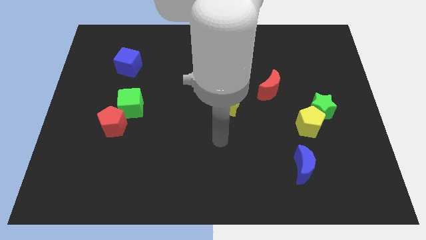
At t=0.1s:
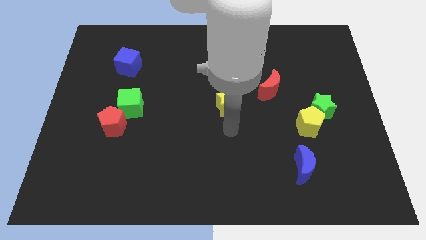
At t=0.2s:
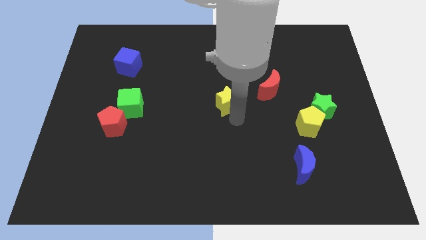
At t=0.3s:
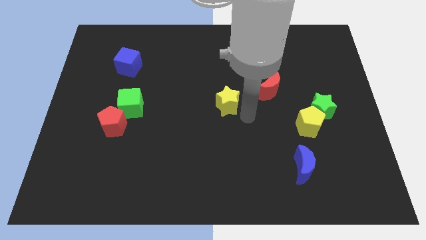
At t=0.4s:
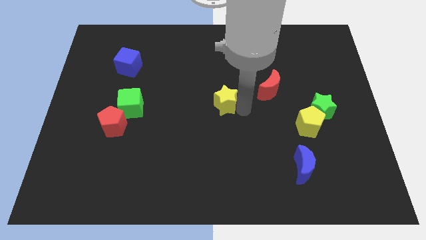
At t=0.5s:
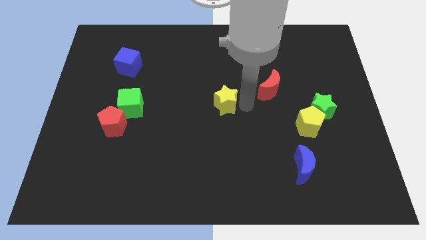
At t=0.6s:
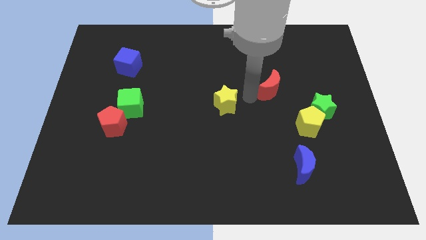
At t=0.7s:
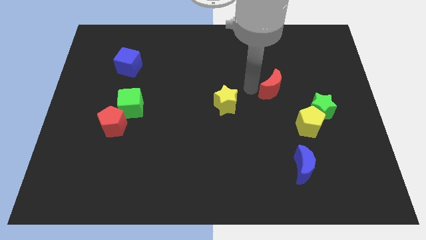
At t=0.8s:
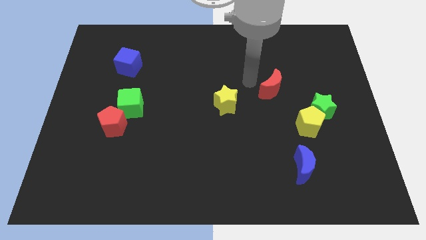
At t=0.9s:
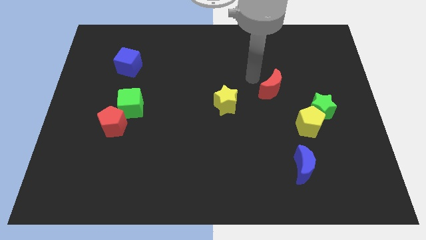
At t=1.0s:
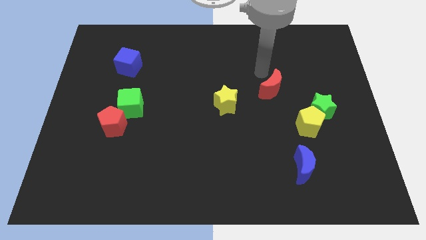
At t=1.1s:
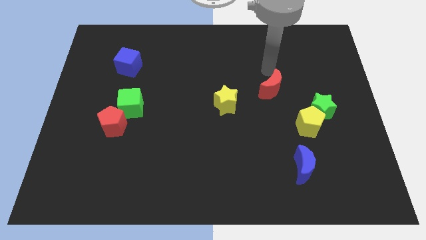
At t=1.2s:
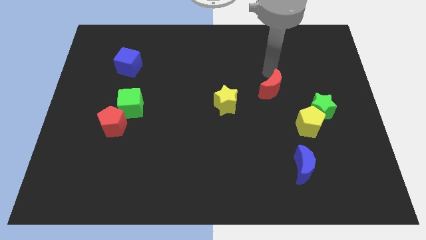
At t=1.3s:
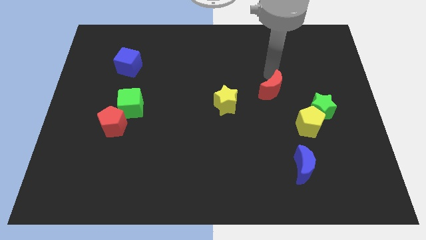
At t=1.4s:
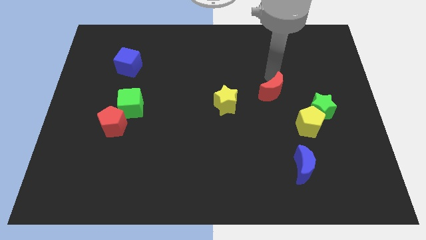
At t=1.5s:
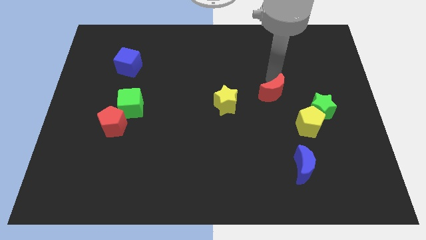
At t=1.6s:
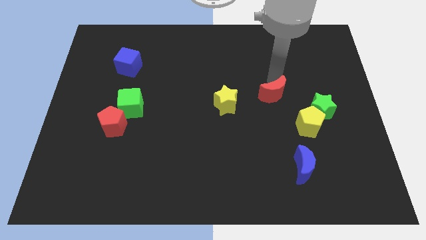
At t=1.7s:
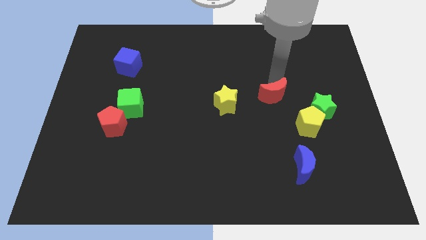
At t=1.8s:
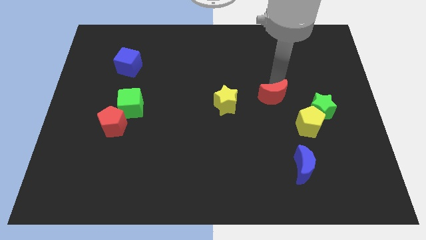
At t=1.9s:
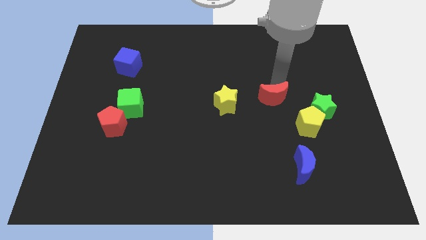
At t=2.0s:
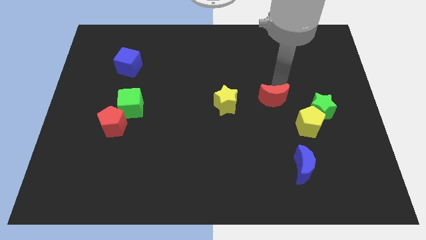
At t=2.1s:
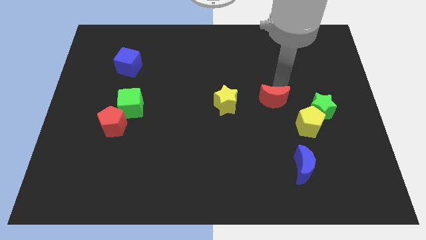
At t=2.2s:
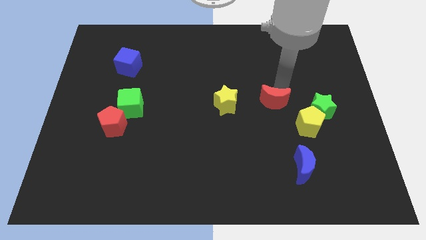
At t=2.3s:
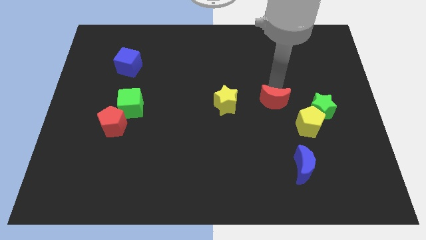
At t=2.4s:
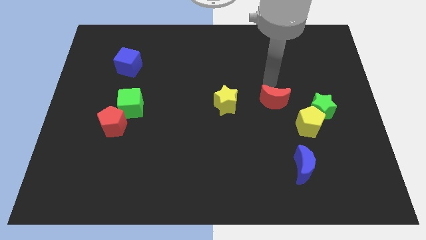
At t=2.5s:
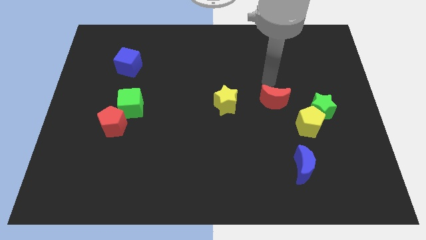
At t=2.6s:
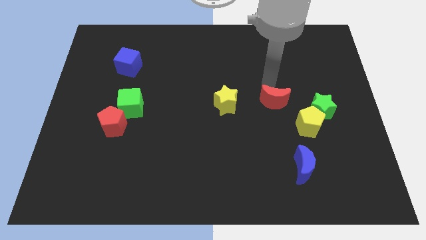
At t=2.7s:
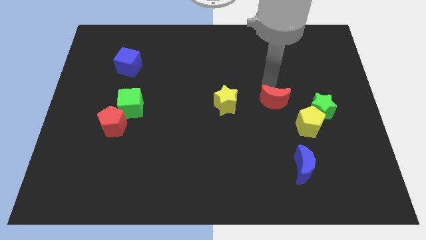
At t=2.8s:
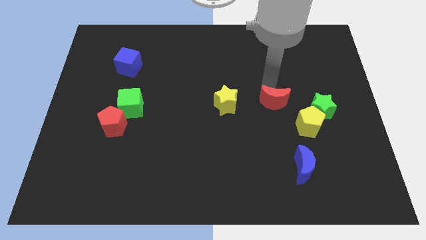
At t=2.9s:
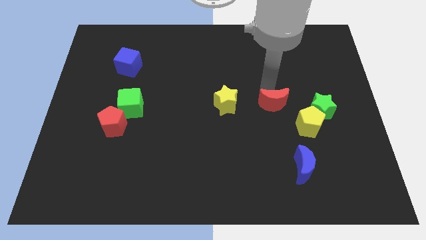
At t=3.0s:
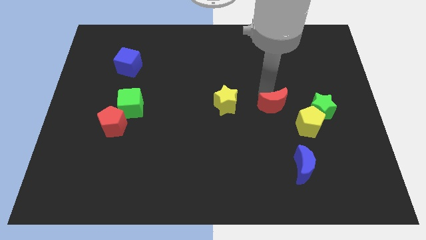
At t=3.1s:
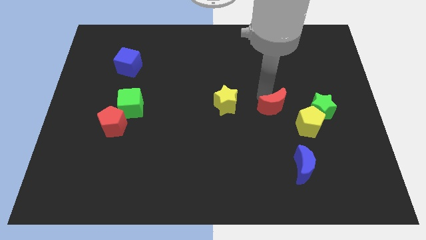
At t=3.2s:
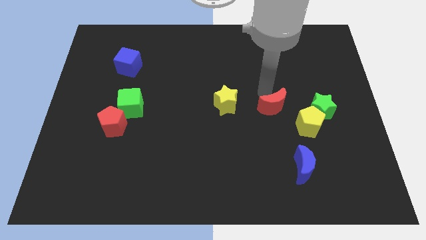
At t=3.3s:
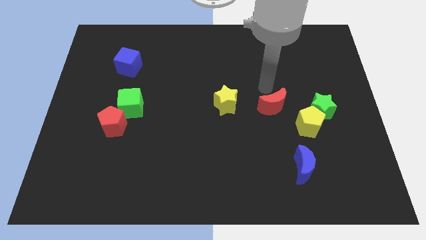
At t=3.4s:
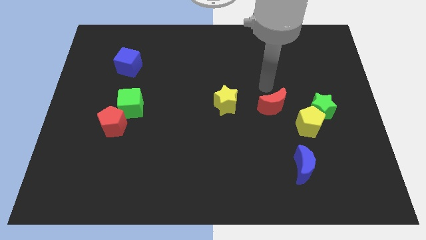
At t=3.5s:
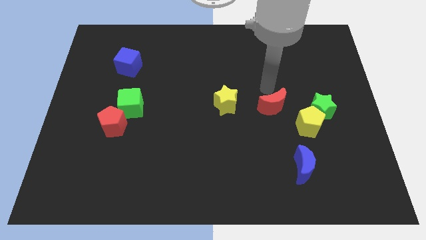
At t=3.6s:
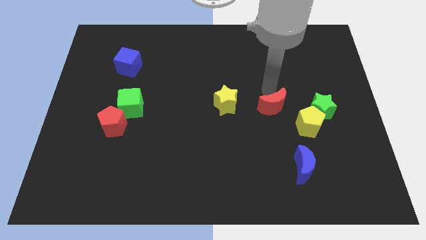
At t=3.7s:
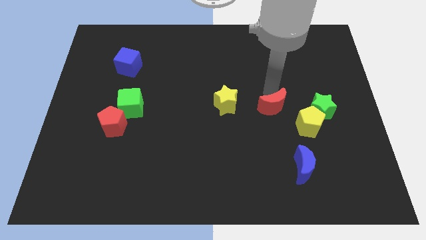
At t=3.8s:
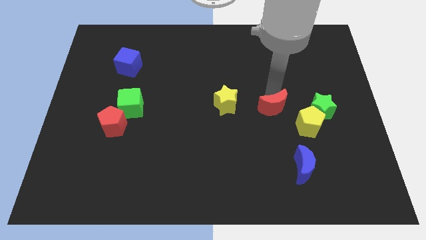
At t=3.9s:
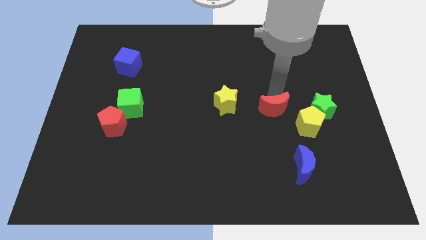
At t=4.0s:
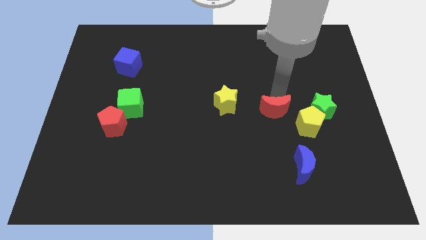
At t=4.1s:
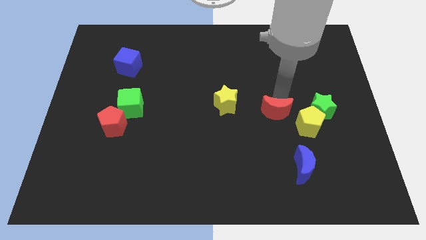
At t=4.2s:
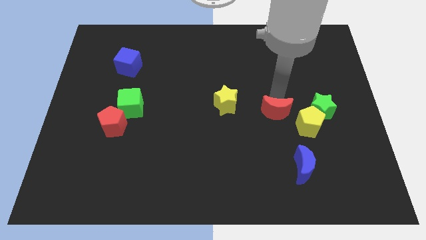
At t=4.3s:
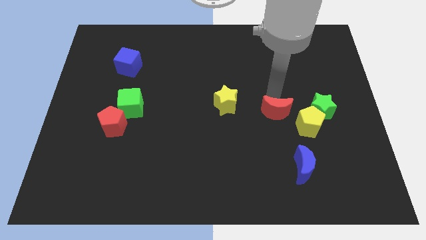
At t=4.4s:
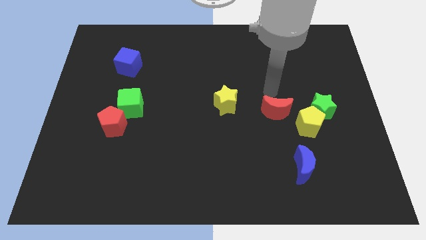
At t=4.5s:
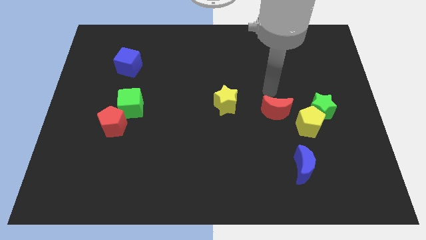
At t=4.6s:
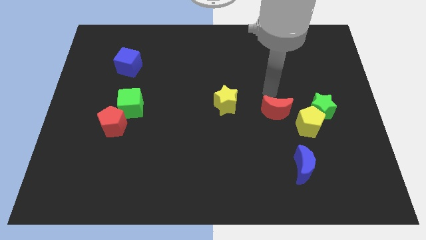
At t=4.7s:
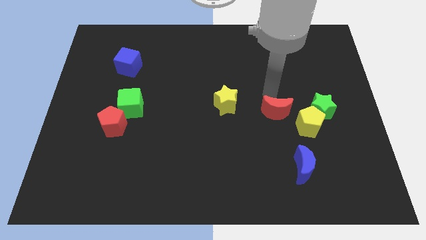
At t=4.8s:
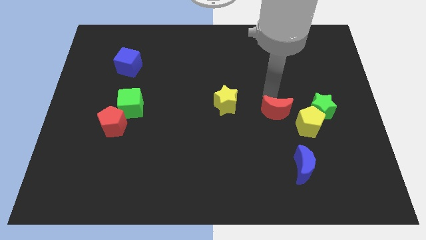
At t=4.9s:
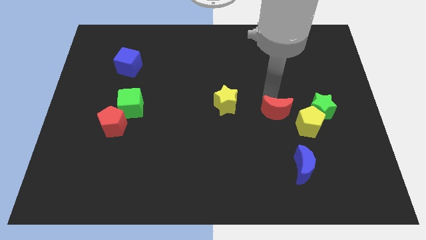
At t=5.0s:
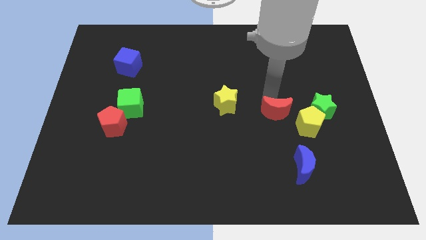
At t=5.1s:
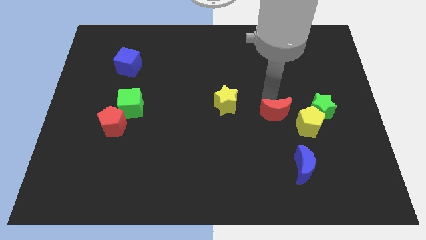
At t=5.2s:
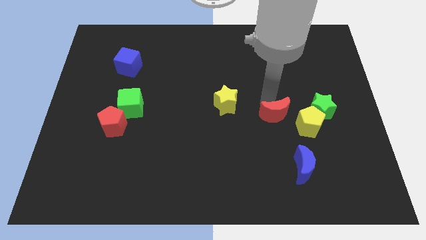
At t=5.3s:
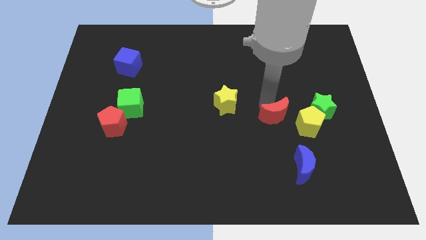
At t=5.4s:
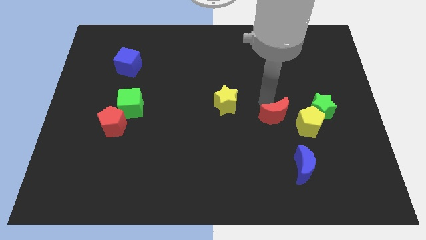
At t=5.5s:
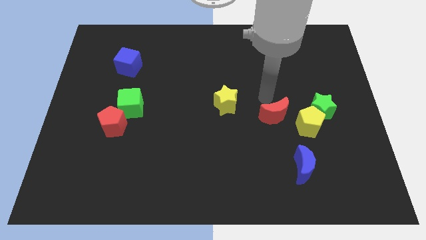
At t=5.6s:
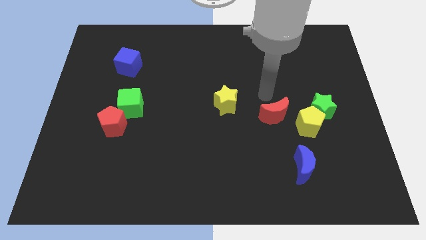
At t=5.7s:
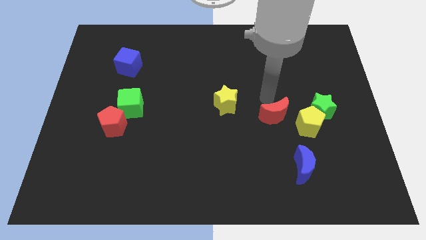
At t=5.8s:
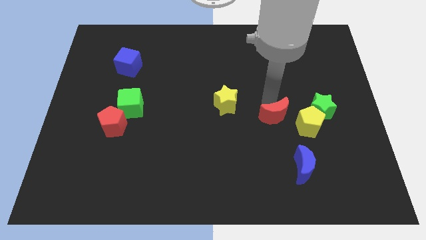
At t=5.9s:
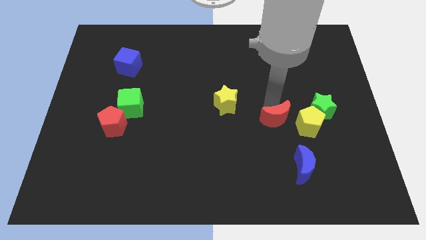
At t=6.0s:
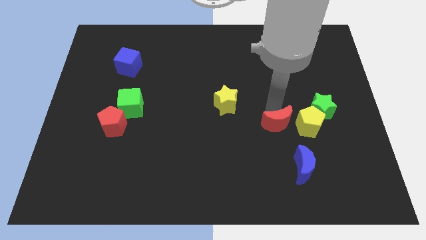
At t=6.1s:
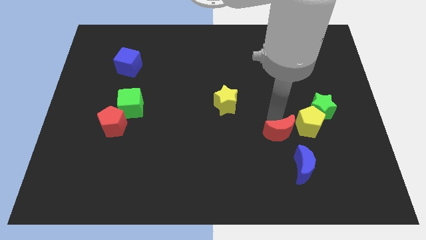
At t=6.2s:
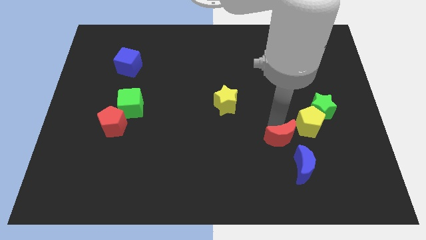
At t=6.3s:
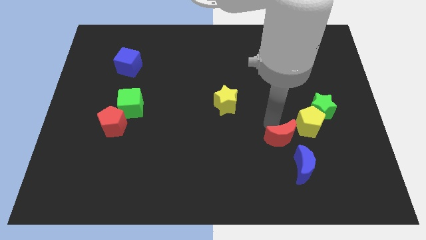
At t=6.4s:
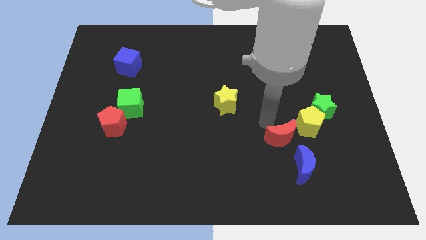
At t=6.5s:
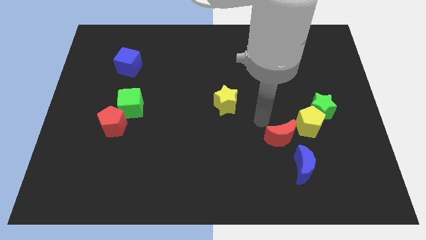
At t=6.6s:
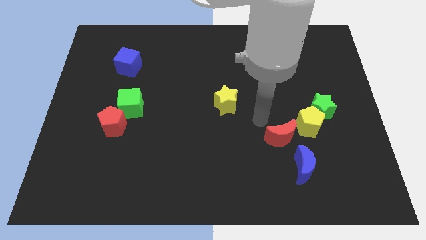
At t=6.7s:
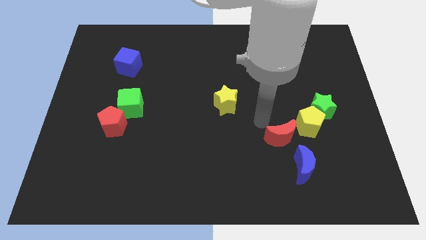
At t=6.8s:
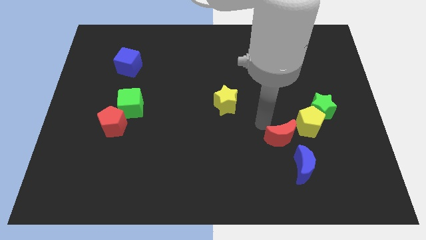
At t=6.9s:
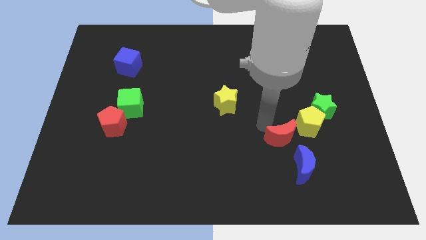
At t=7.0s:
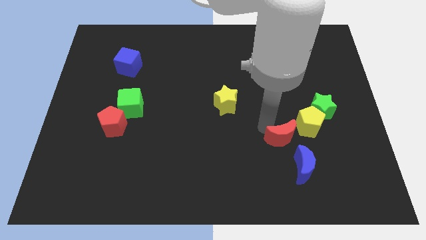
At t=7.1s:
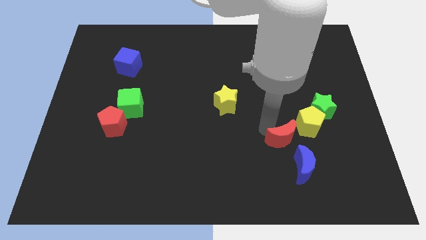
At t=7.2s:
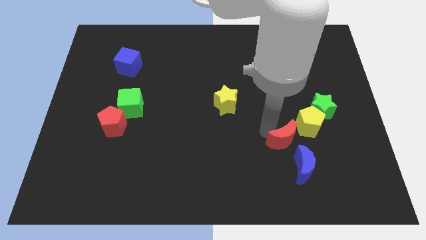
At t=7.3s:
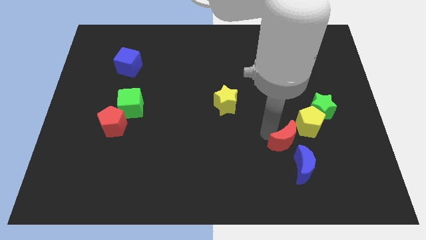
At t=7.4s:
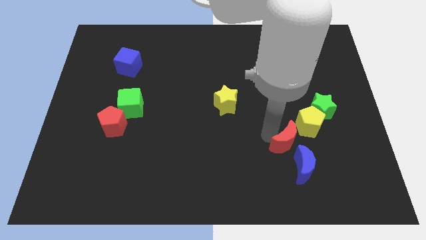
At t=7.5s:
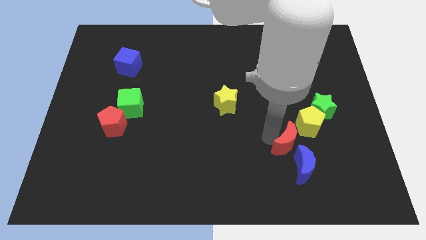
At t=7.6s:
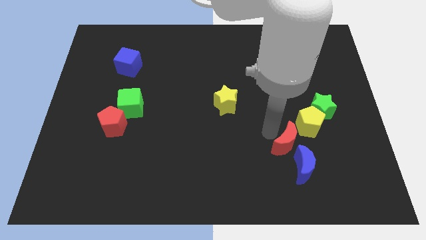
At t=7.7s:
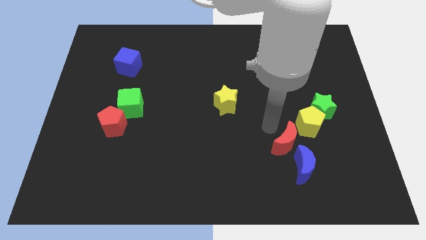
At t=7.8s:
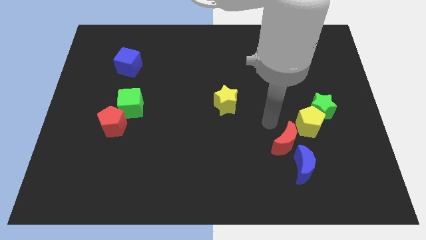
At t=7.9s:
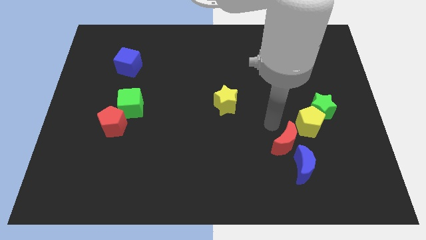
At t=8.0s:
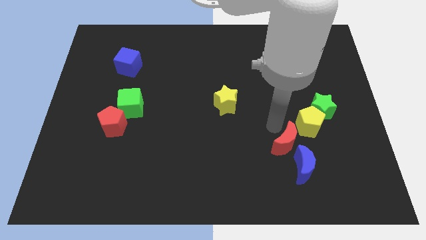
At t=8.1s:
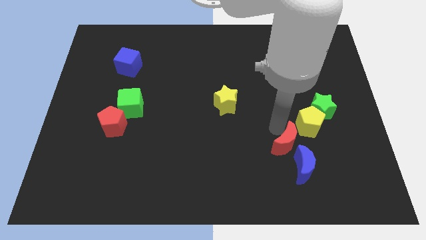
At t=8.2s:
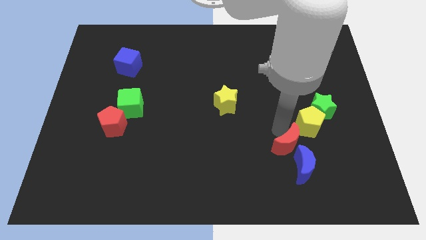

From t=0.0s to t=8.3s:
move the red moon towards the blue moon
